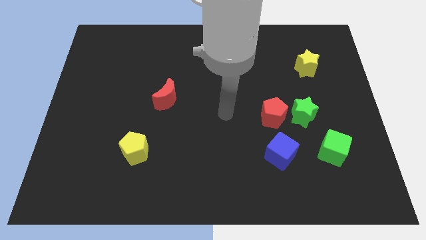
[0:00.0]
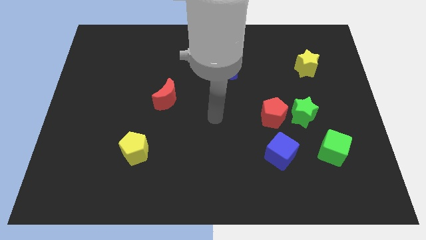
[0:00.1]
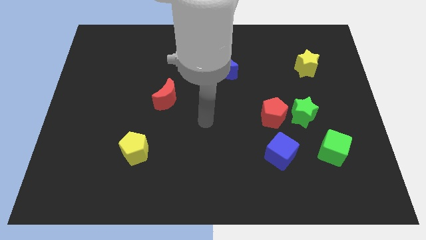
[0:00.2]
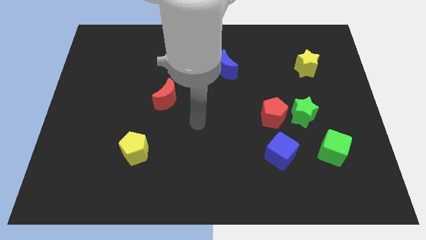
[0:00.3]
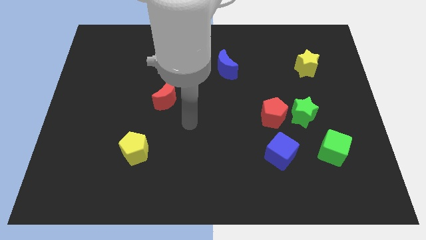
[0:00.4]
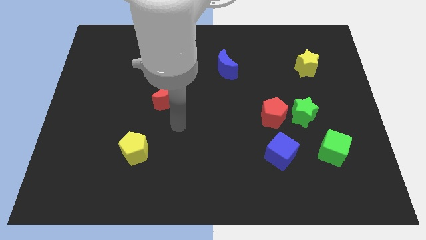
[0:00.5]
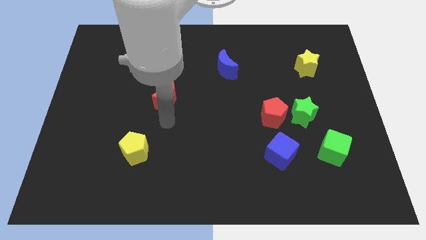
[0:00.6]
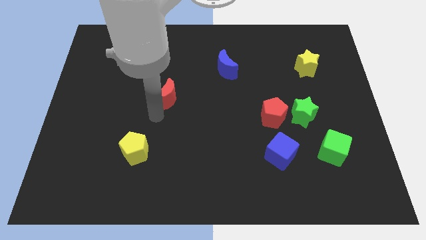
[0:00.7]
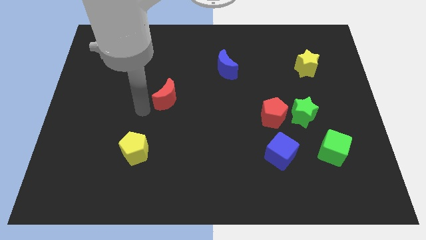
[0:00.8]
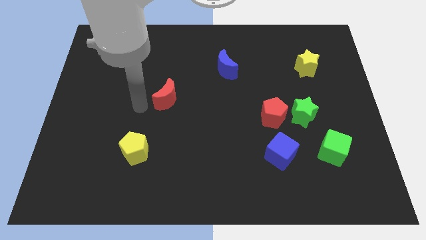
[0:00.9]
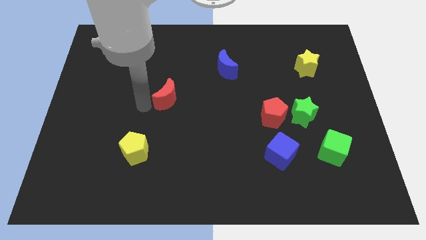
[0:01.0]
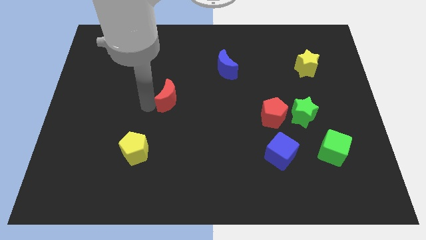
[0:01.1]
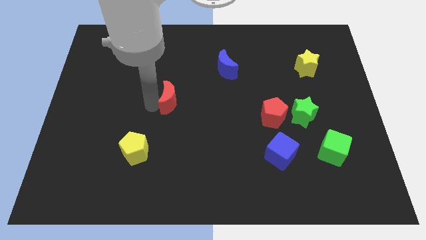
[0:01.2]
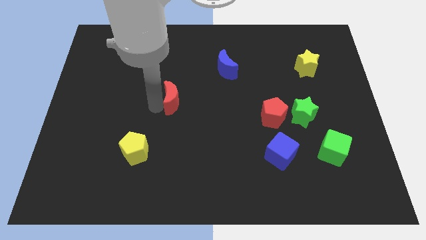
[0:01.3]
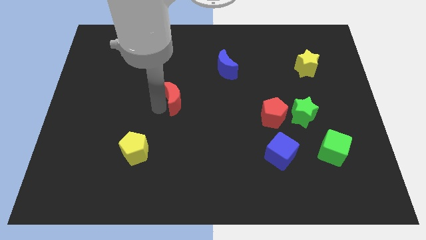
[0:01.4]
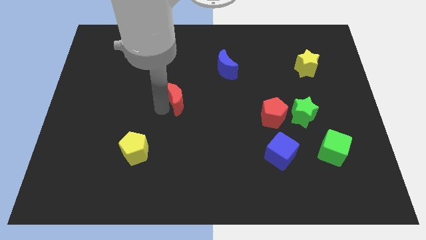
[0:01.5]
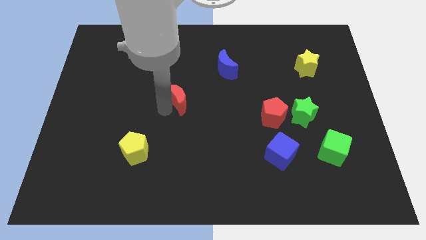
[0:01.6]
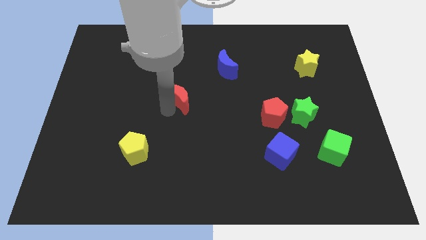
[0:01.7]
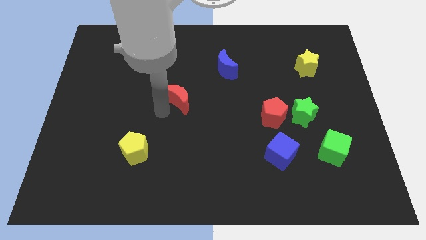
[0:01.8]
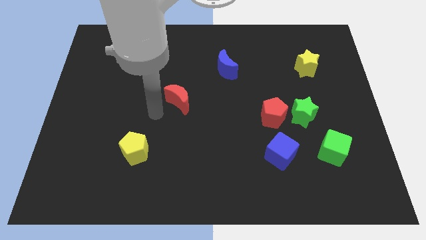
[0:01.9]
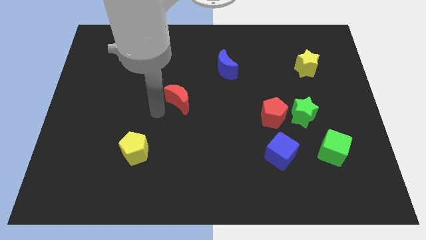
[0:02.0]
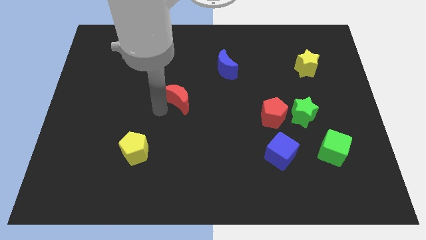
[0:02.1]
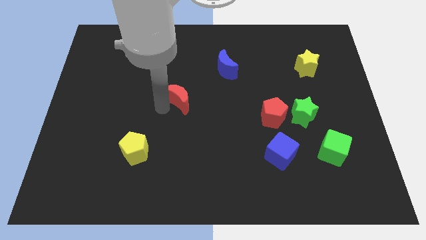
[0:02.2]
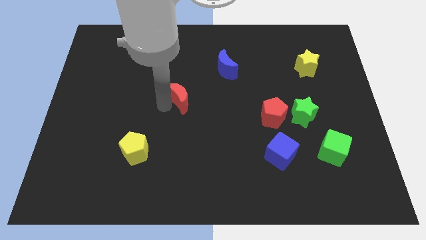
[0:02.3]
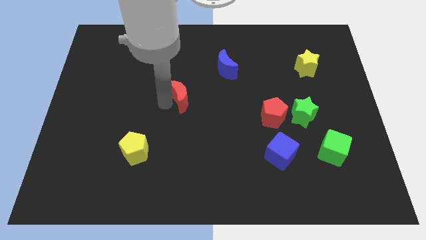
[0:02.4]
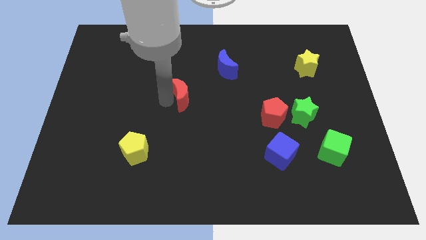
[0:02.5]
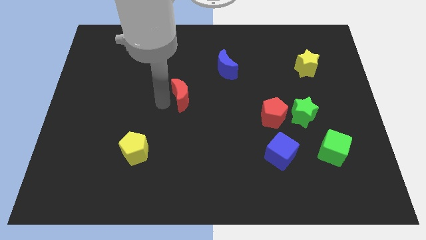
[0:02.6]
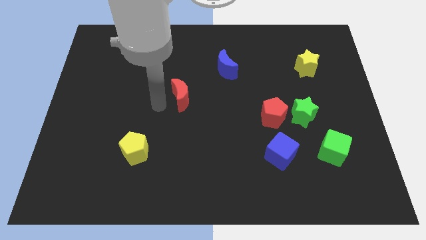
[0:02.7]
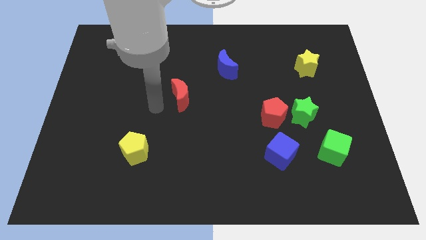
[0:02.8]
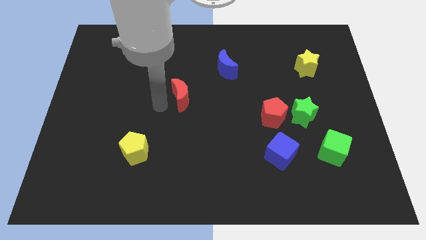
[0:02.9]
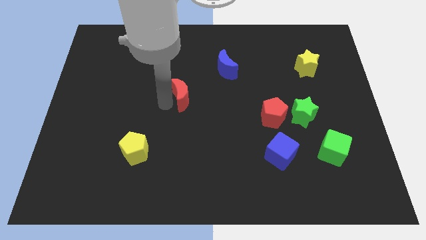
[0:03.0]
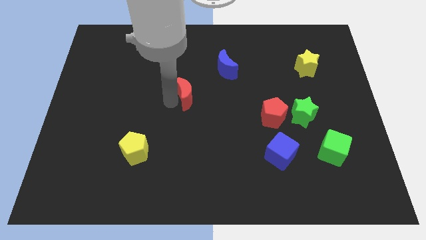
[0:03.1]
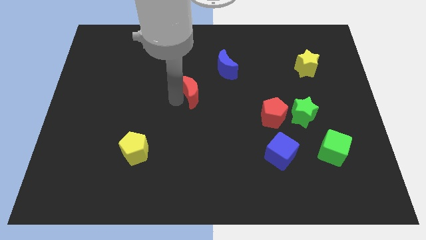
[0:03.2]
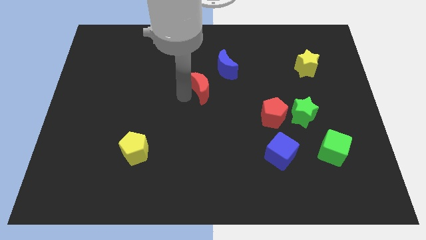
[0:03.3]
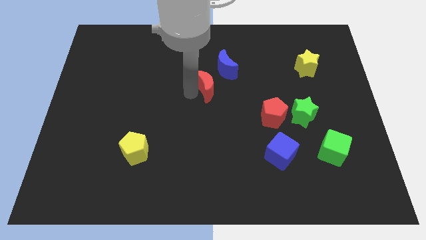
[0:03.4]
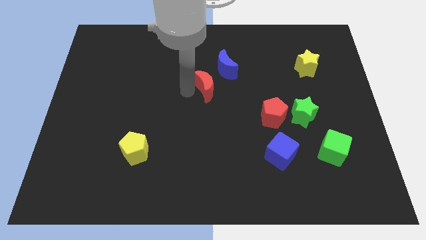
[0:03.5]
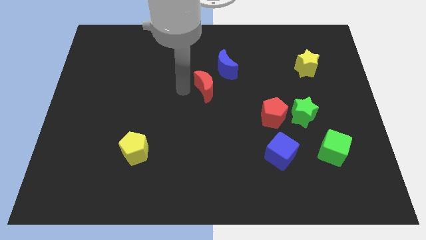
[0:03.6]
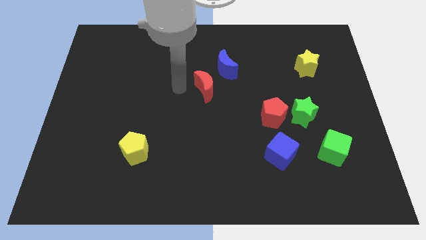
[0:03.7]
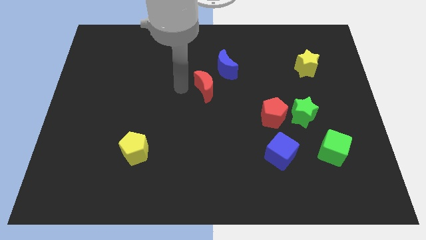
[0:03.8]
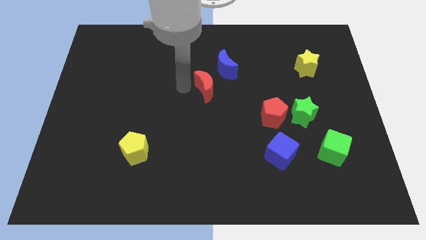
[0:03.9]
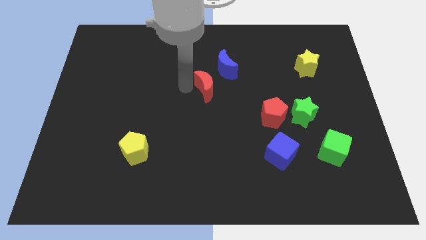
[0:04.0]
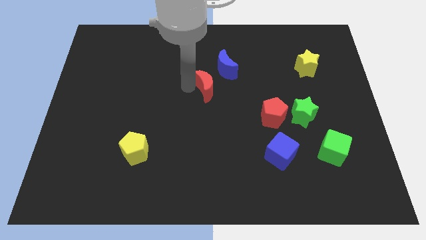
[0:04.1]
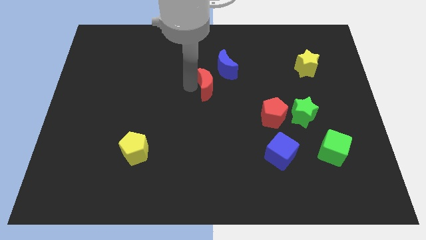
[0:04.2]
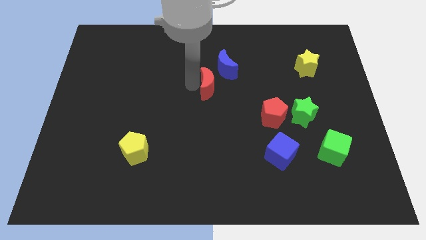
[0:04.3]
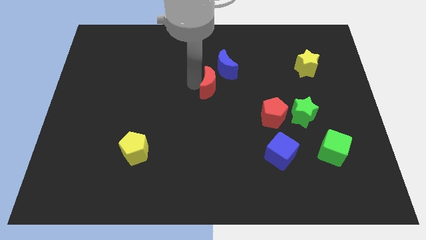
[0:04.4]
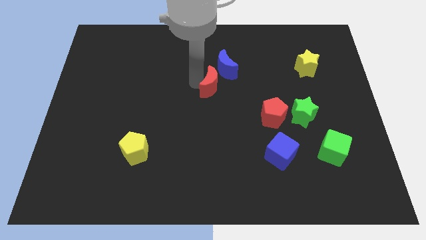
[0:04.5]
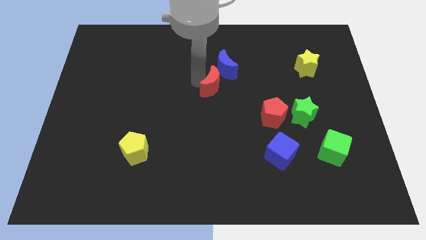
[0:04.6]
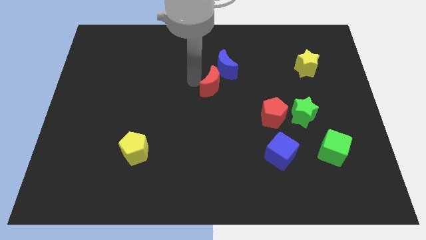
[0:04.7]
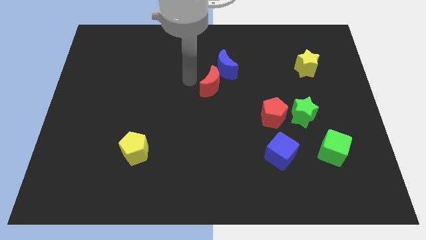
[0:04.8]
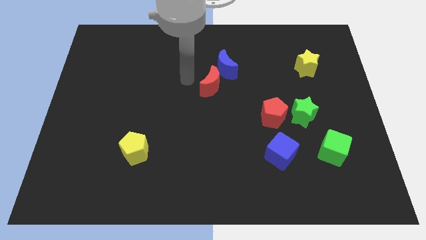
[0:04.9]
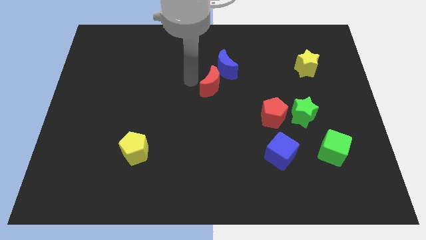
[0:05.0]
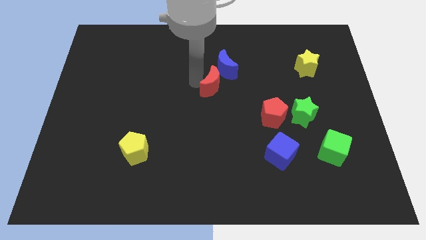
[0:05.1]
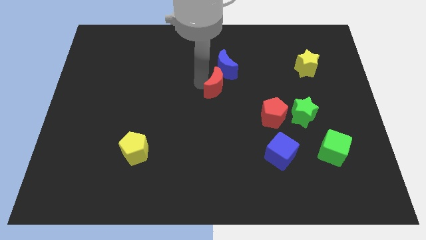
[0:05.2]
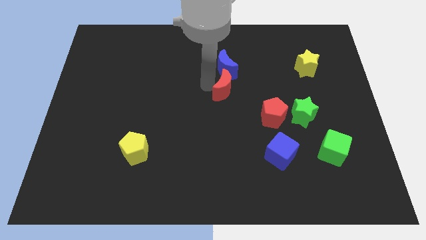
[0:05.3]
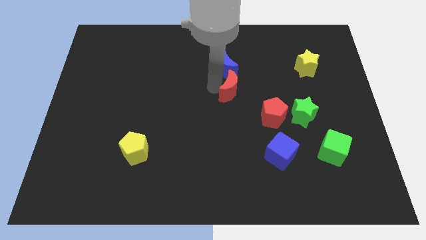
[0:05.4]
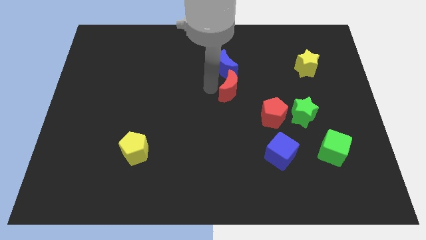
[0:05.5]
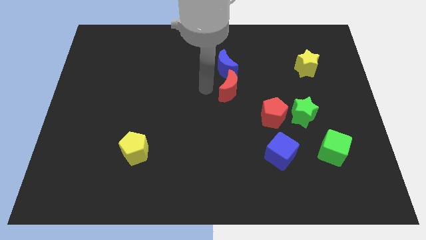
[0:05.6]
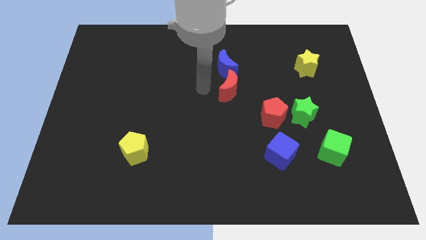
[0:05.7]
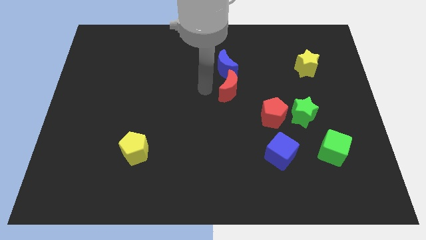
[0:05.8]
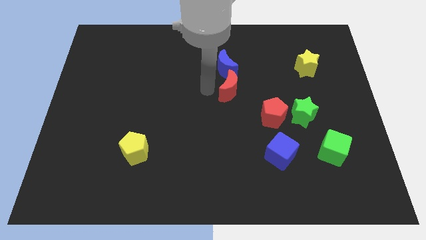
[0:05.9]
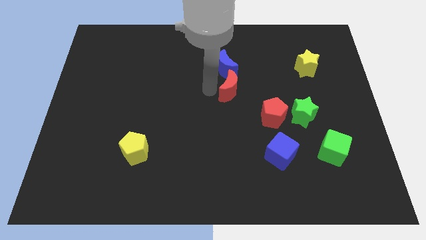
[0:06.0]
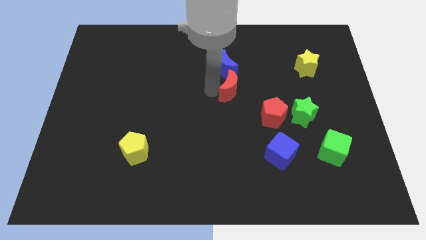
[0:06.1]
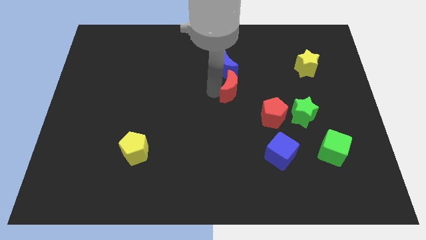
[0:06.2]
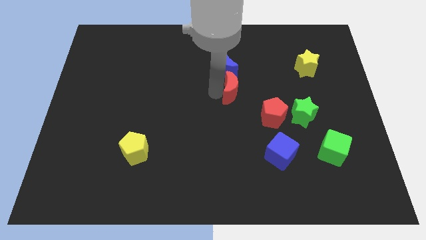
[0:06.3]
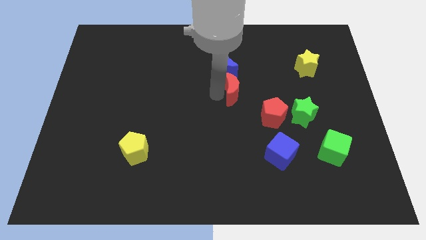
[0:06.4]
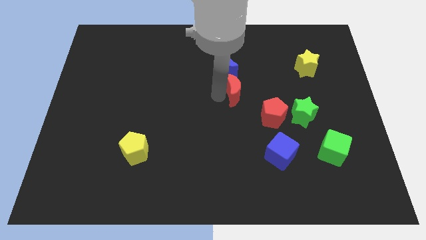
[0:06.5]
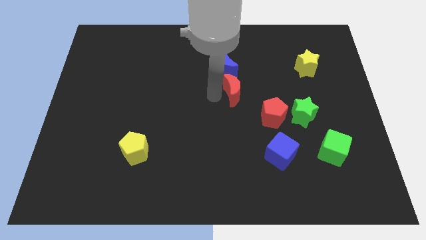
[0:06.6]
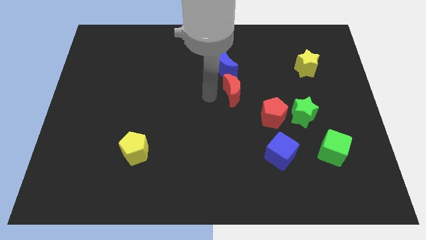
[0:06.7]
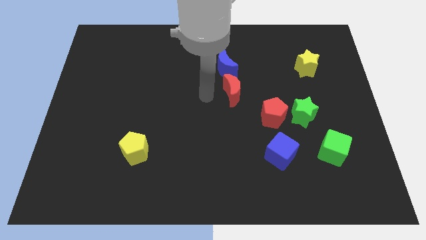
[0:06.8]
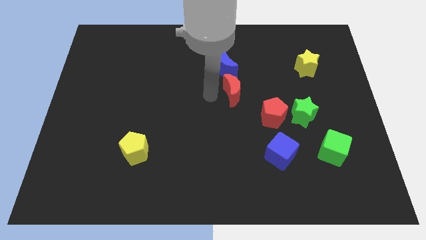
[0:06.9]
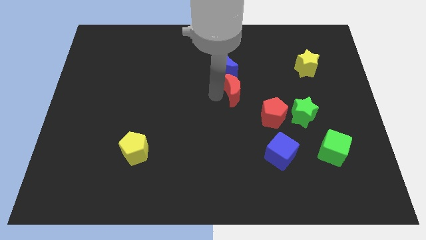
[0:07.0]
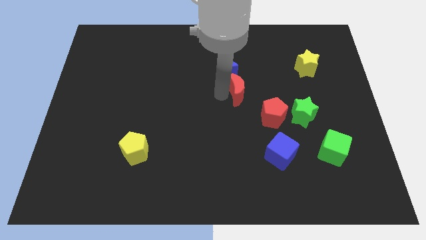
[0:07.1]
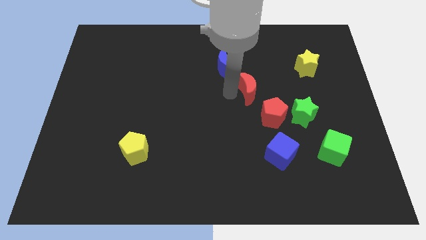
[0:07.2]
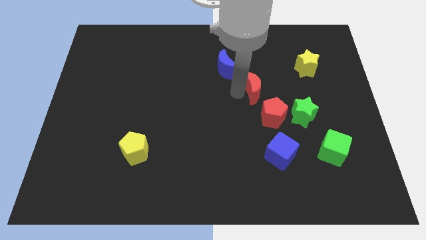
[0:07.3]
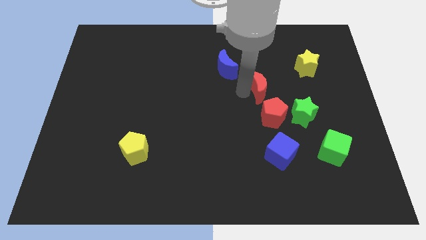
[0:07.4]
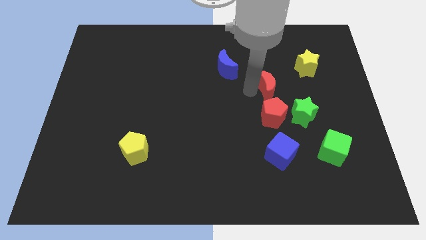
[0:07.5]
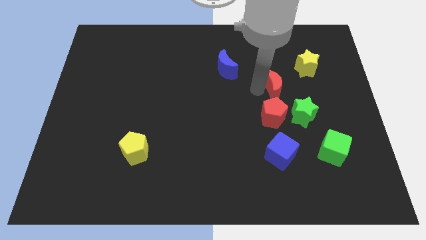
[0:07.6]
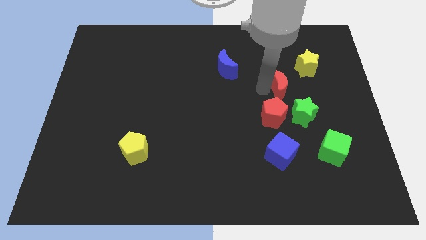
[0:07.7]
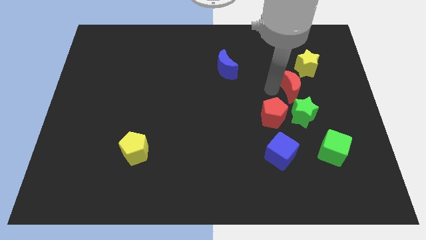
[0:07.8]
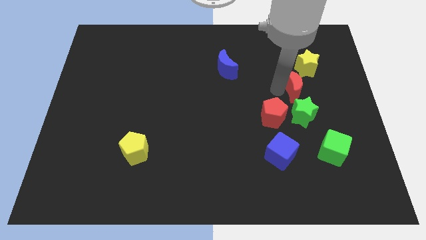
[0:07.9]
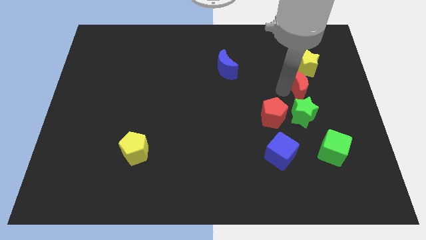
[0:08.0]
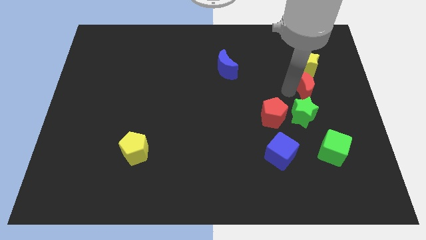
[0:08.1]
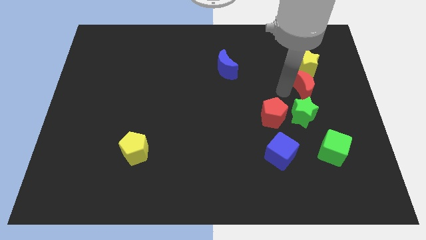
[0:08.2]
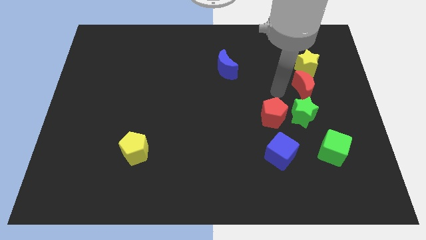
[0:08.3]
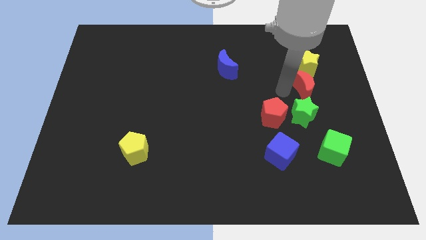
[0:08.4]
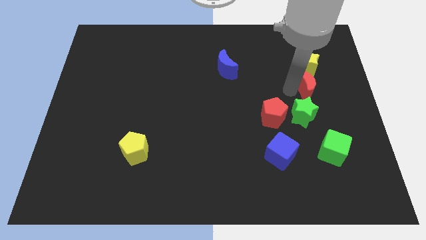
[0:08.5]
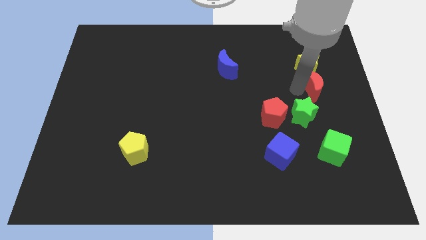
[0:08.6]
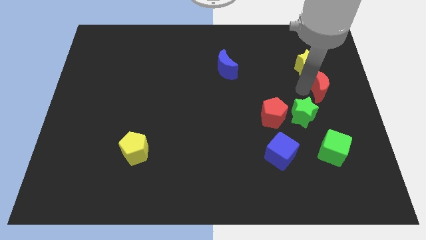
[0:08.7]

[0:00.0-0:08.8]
move the red moon to the right side of the board
